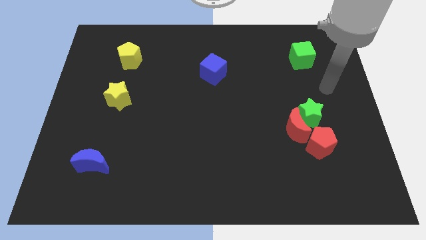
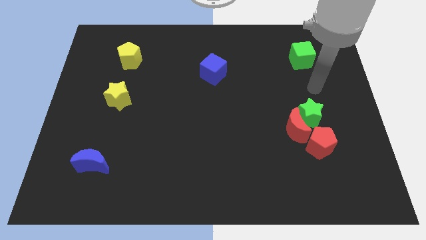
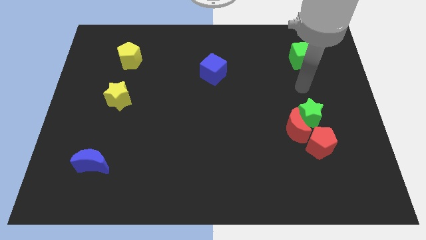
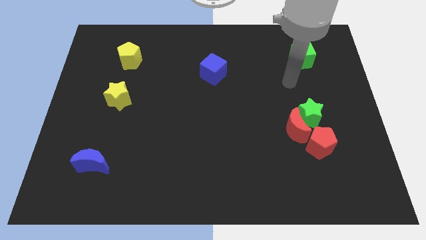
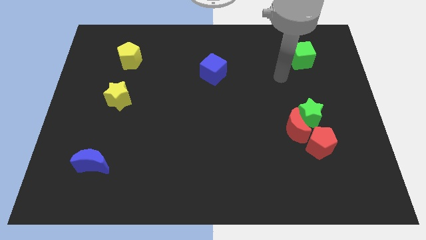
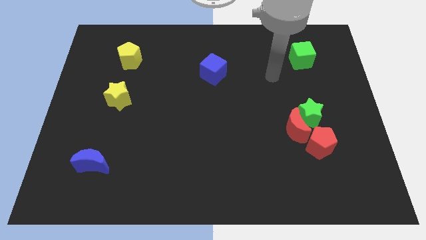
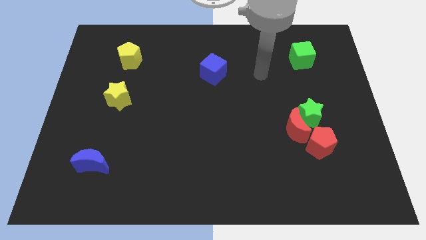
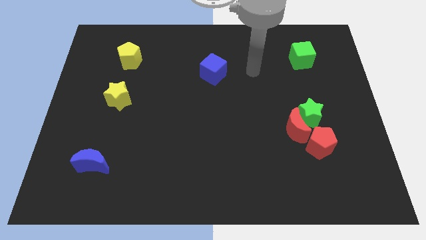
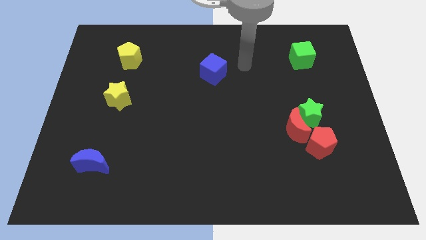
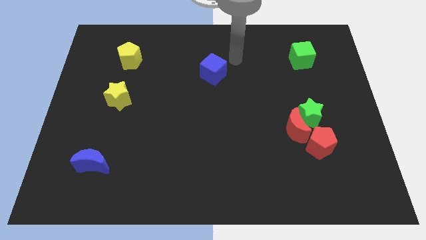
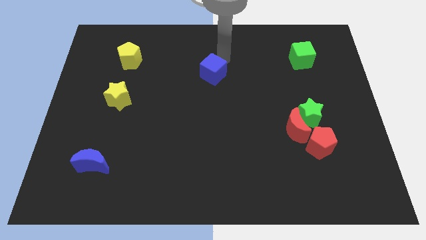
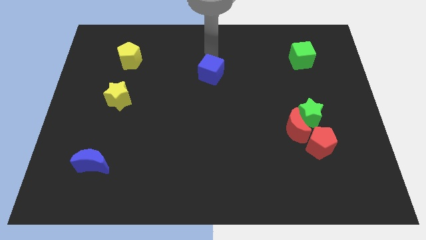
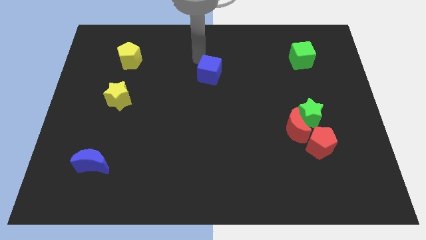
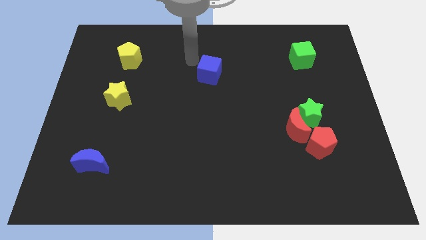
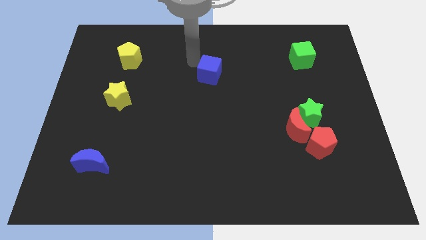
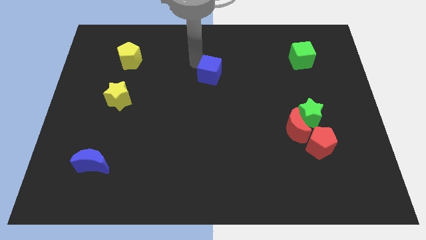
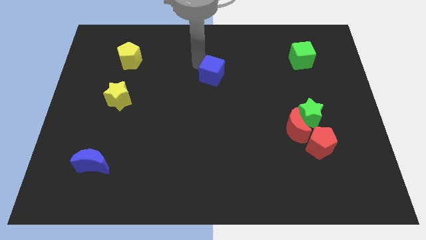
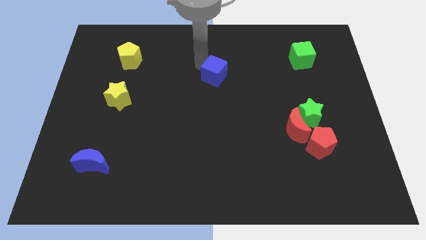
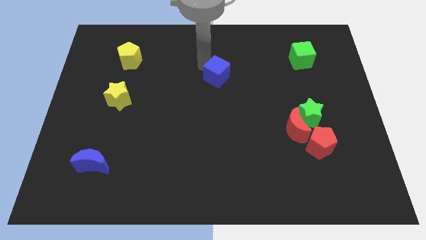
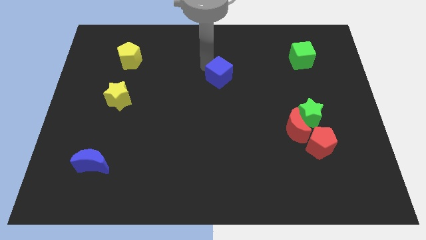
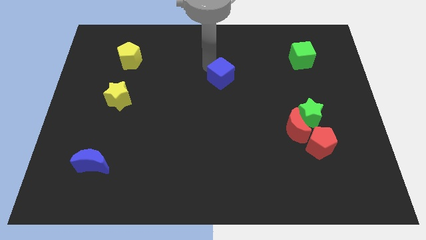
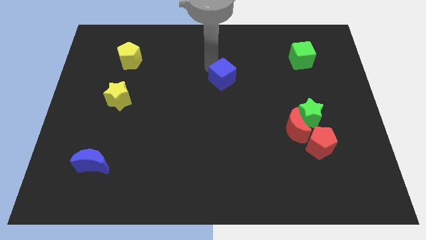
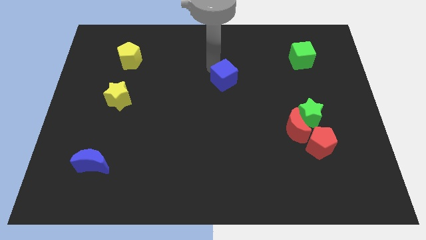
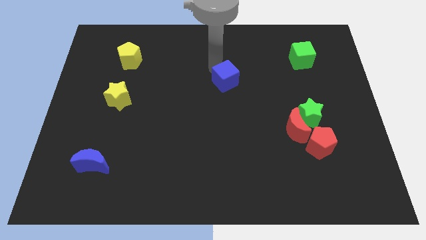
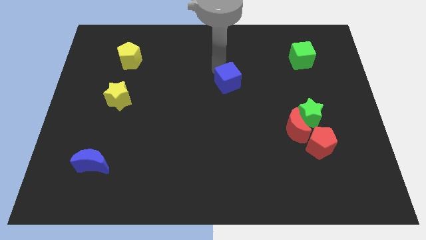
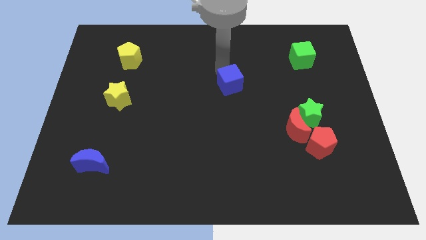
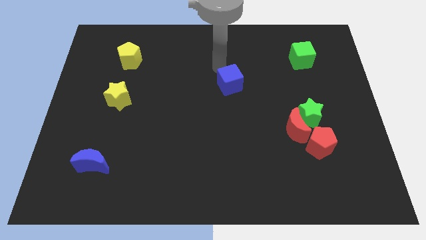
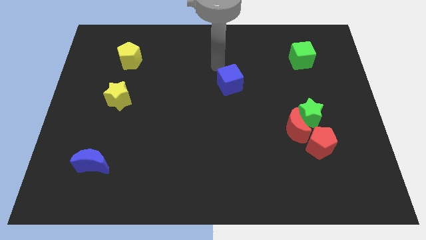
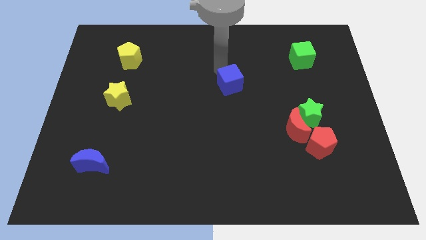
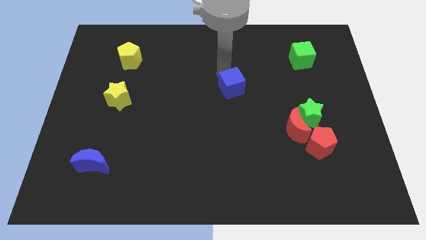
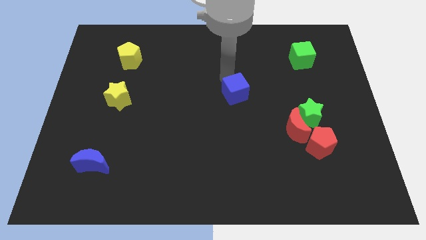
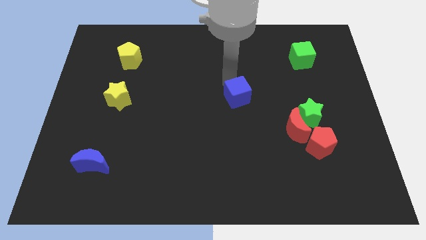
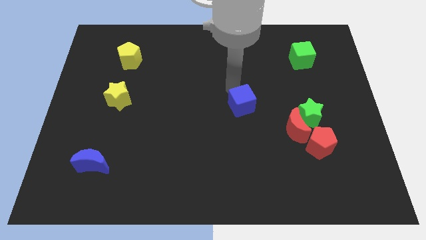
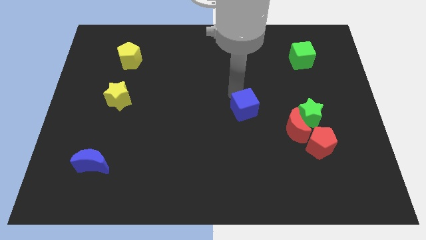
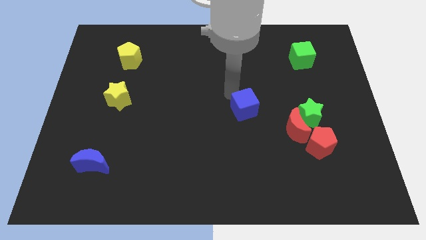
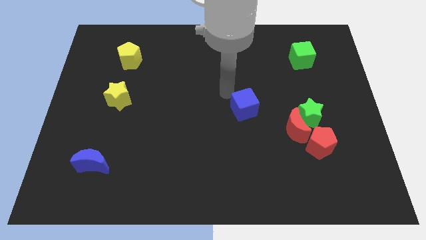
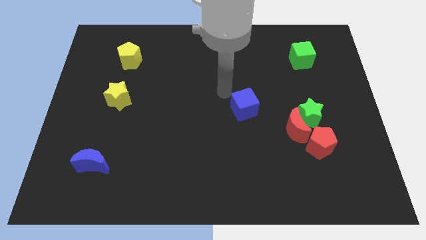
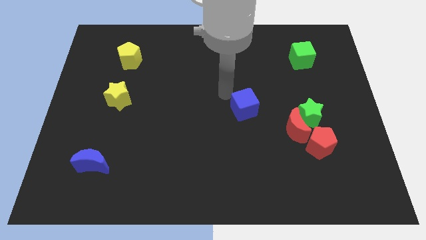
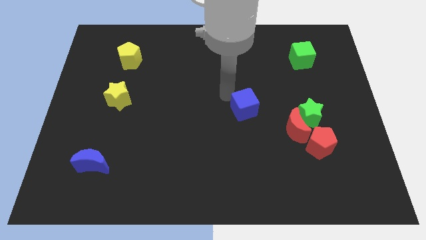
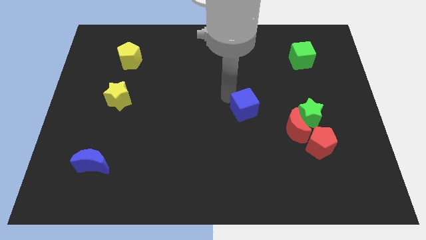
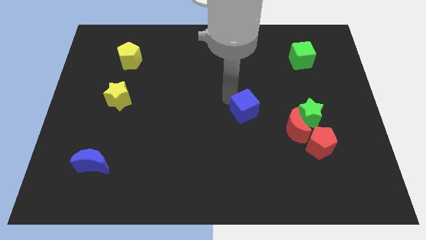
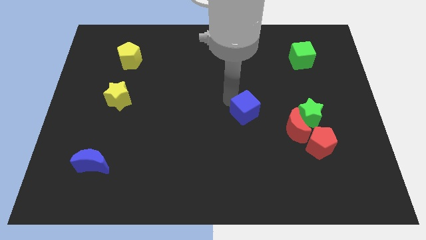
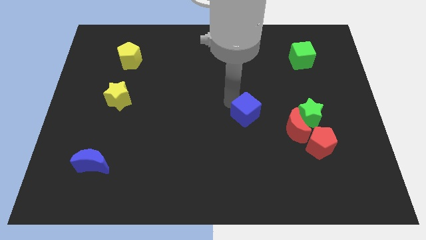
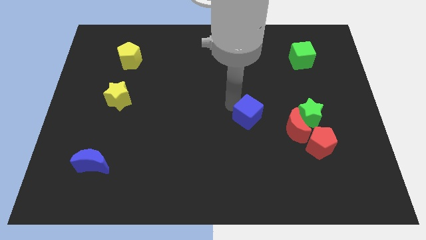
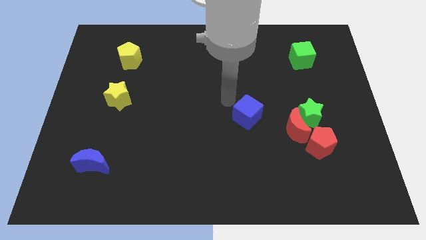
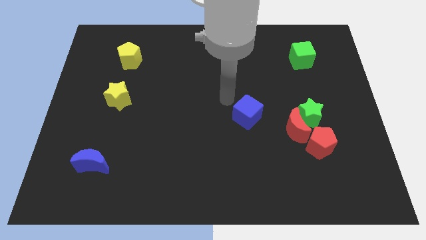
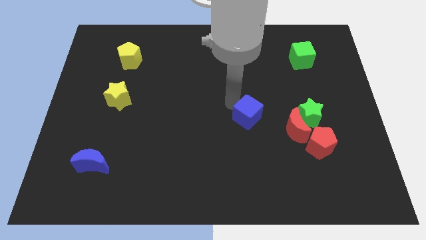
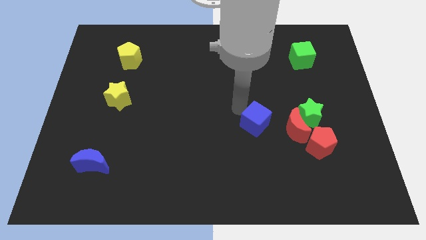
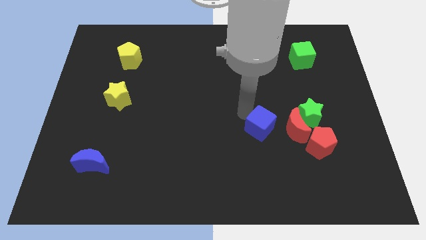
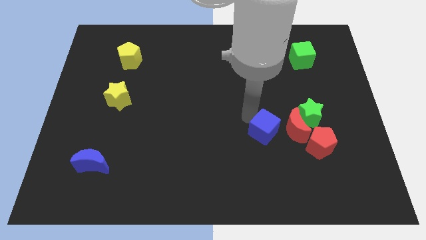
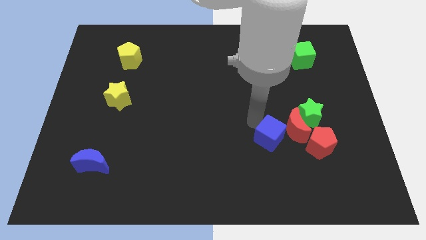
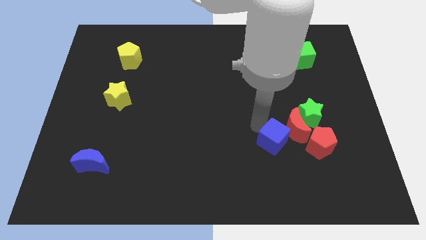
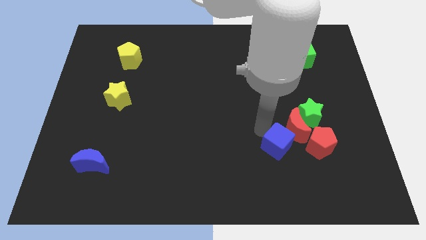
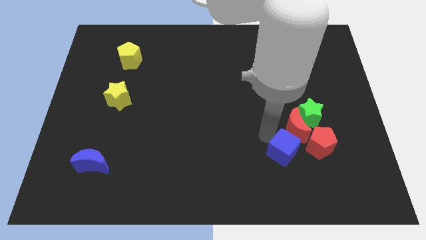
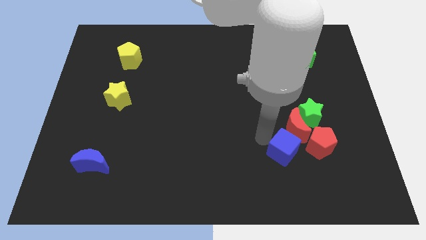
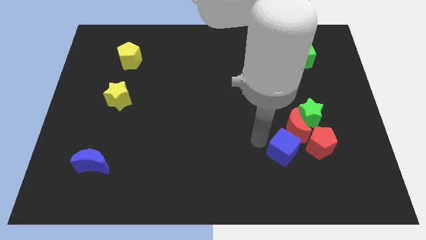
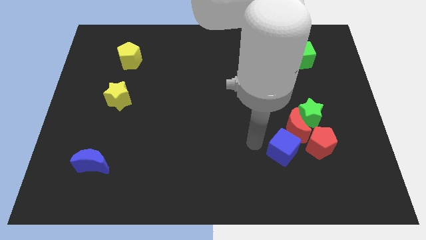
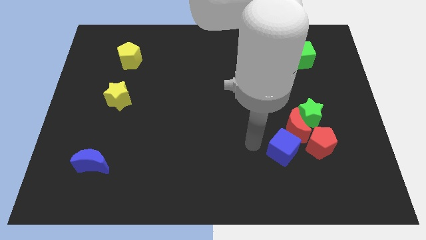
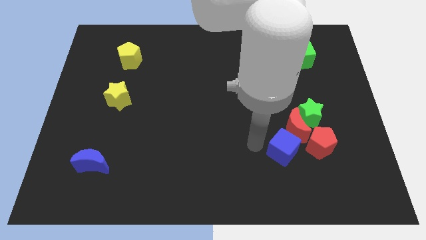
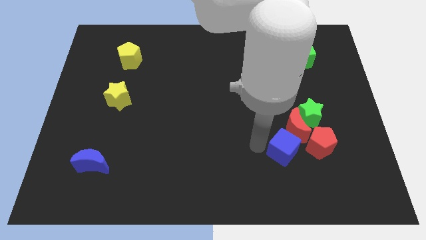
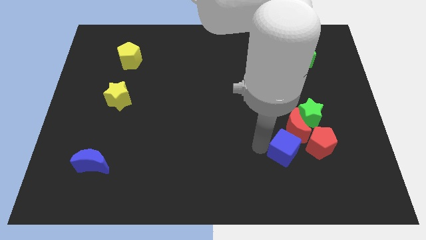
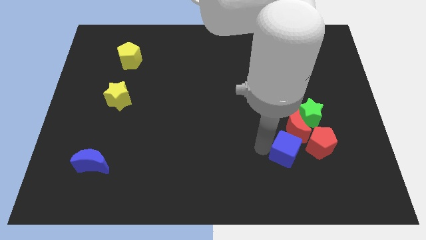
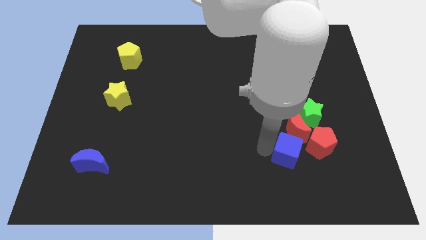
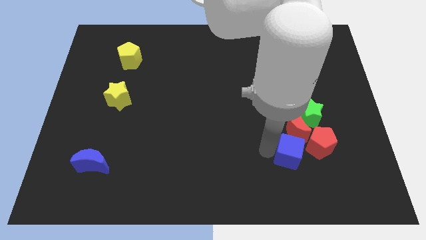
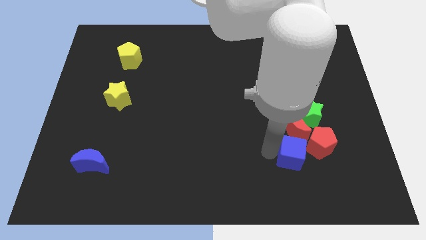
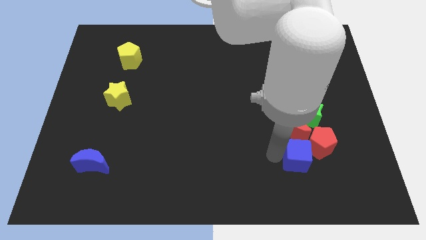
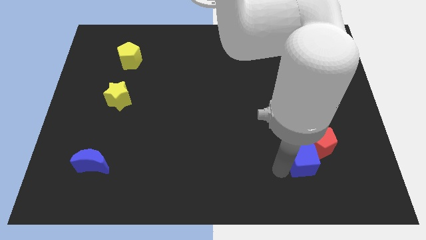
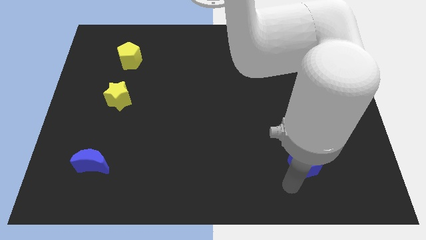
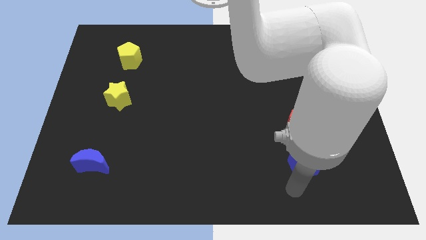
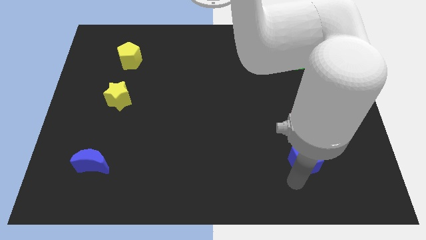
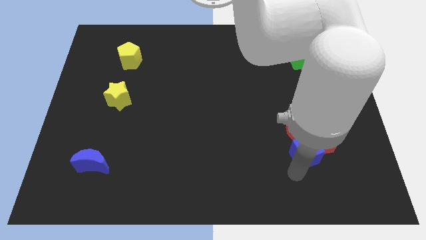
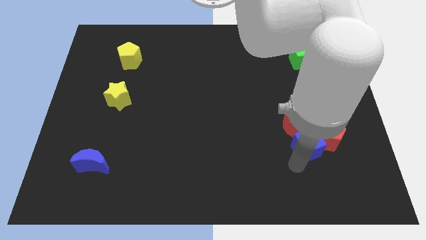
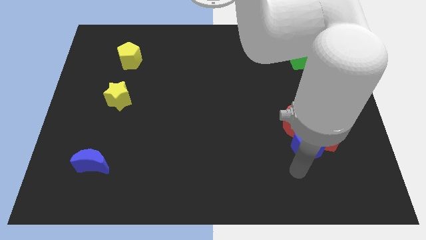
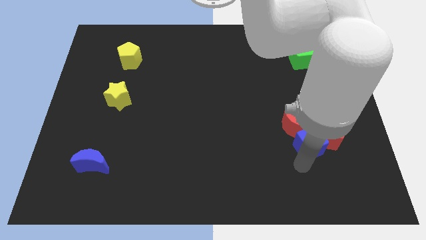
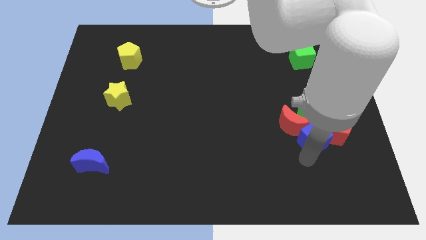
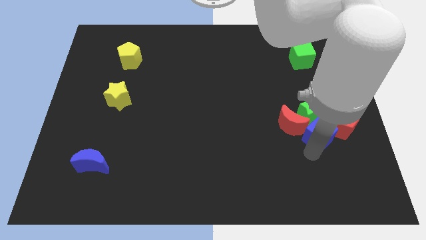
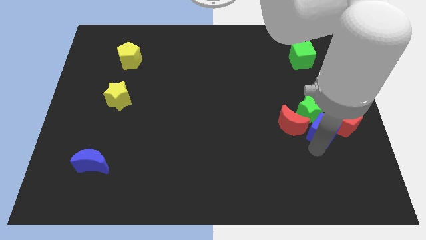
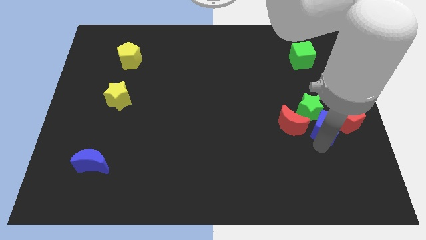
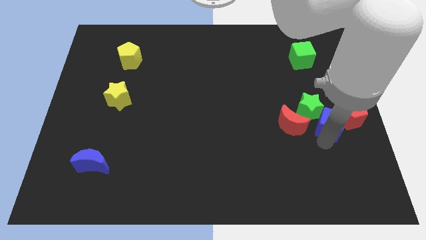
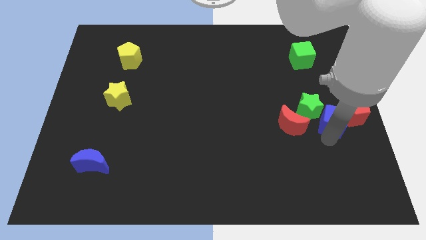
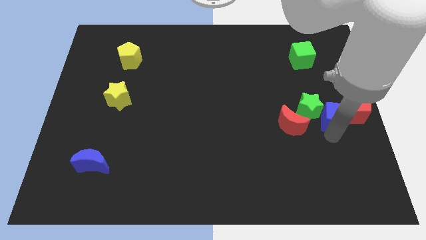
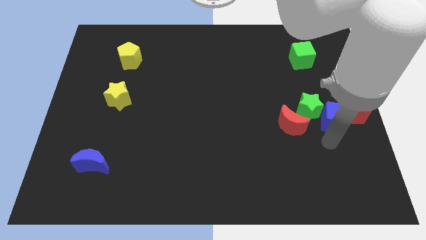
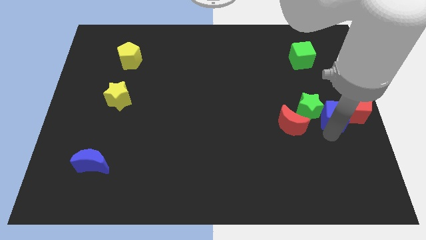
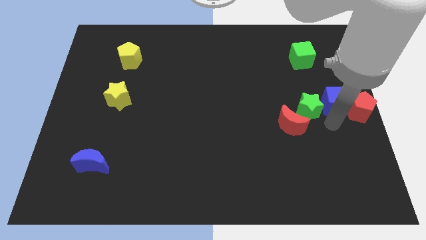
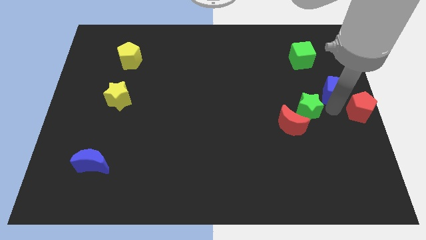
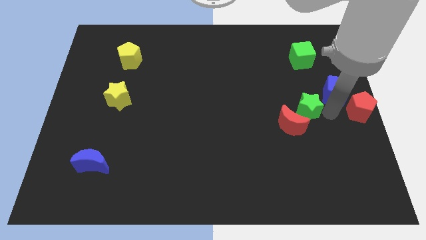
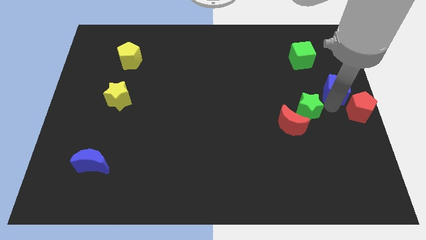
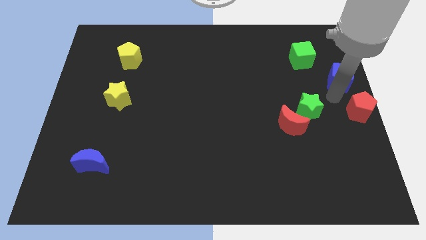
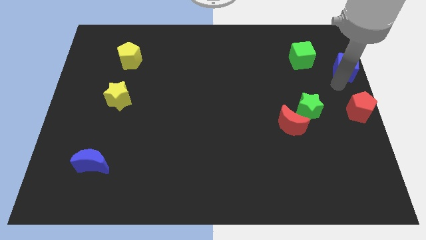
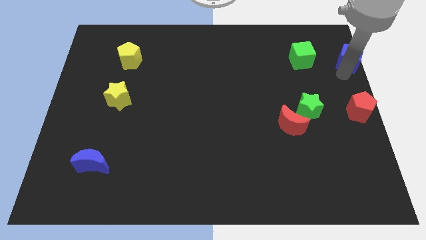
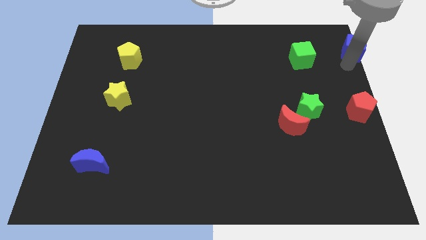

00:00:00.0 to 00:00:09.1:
put the blue cube to the upper right corner
